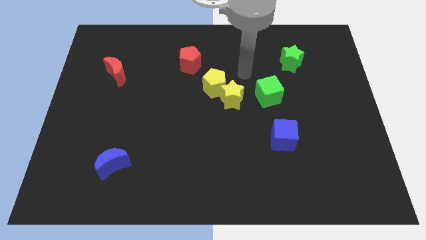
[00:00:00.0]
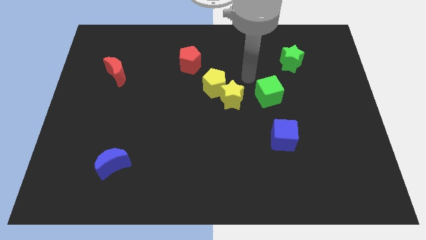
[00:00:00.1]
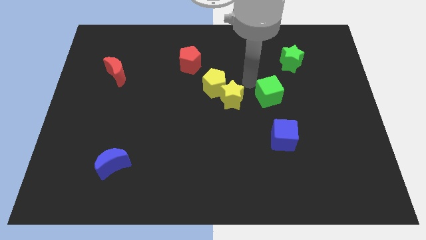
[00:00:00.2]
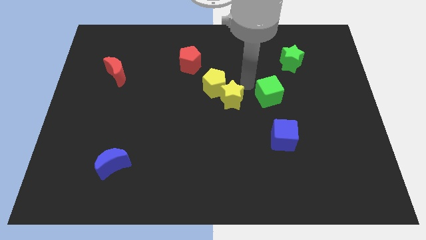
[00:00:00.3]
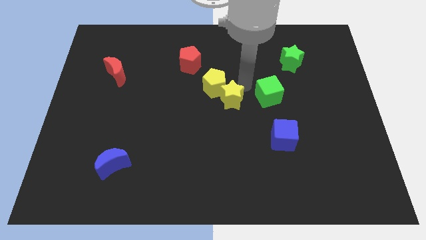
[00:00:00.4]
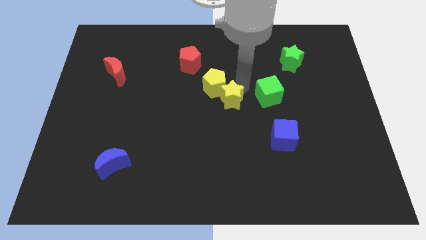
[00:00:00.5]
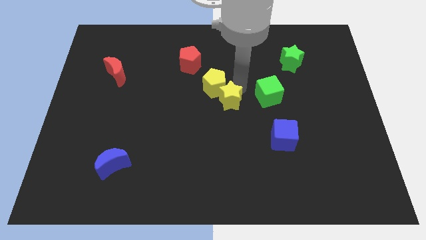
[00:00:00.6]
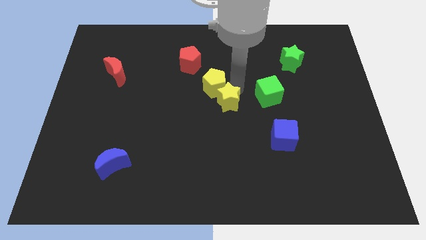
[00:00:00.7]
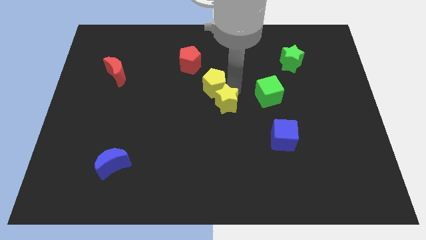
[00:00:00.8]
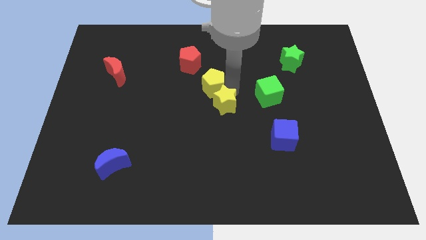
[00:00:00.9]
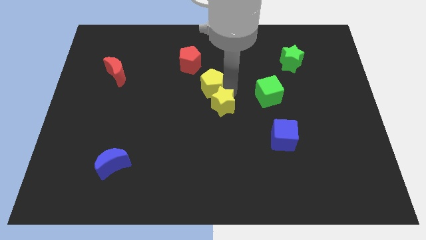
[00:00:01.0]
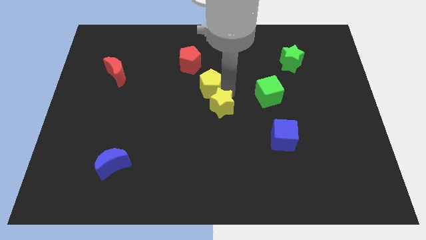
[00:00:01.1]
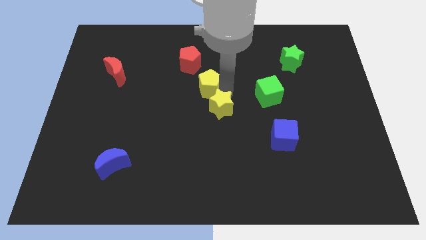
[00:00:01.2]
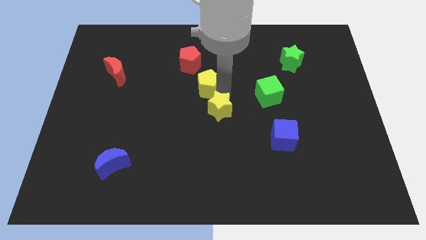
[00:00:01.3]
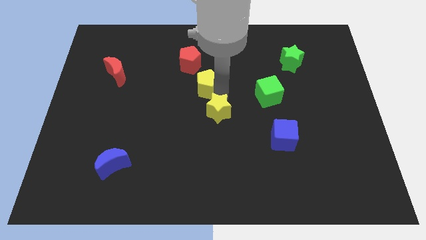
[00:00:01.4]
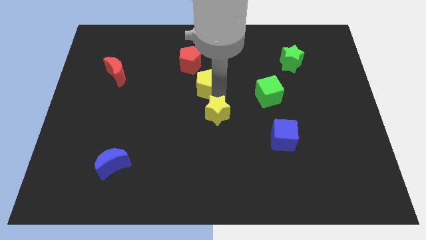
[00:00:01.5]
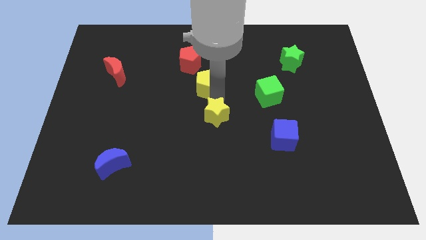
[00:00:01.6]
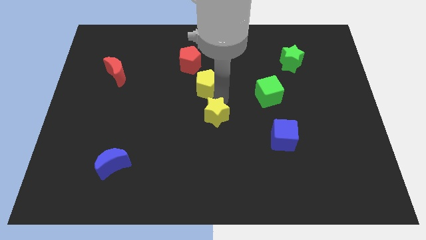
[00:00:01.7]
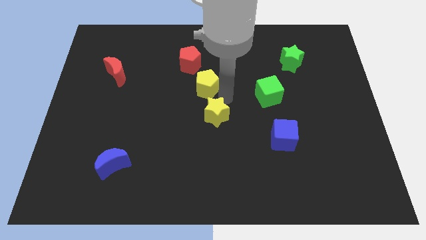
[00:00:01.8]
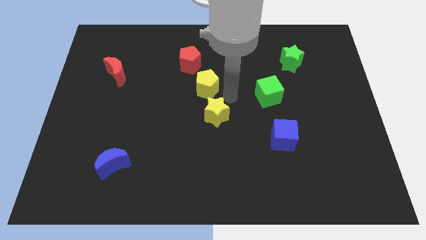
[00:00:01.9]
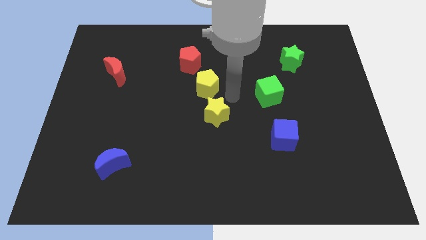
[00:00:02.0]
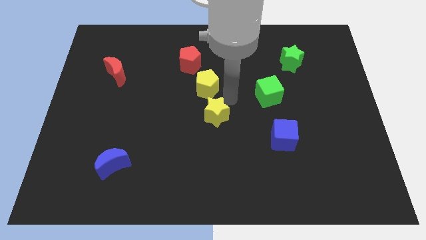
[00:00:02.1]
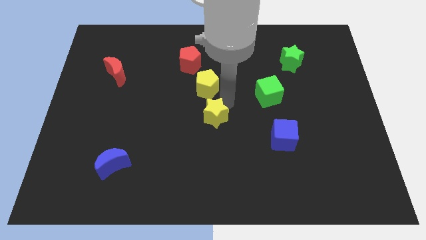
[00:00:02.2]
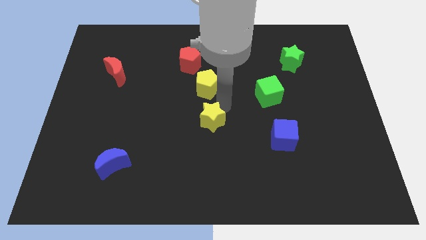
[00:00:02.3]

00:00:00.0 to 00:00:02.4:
move the yellow star away from the yellow pentagon and green cube

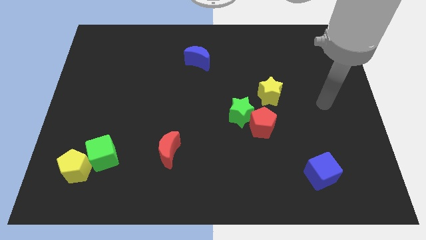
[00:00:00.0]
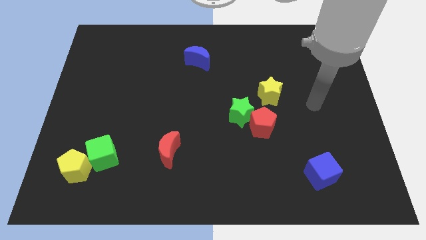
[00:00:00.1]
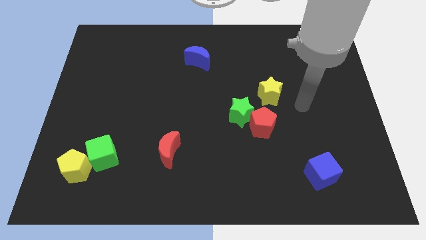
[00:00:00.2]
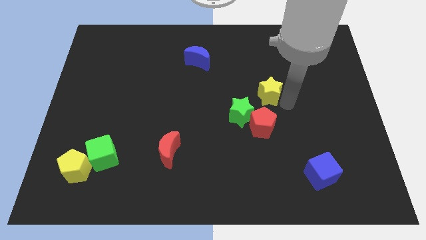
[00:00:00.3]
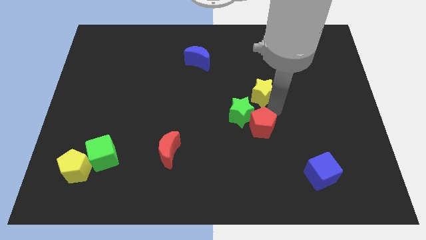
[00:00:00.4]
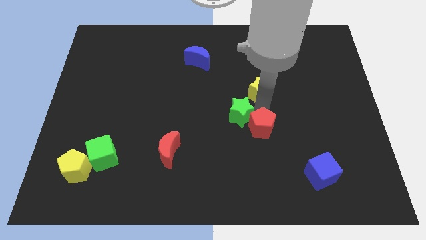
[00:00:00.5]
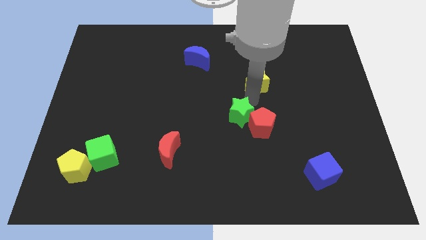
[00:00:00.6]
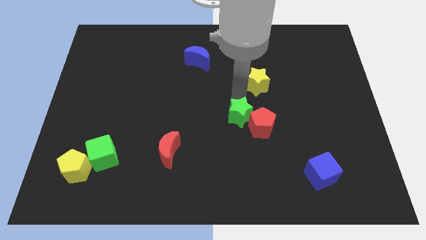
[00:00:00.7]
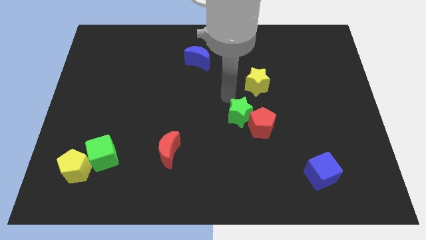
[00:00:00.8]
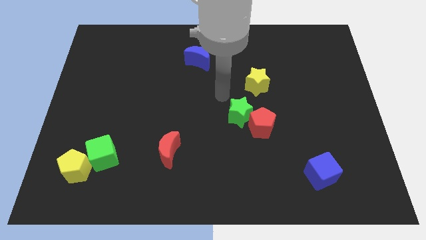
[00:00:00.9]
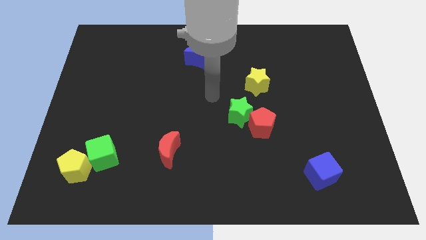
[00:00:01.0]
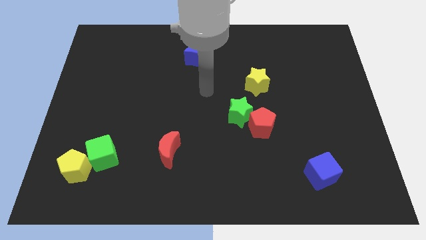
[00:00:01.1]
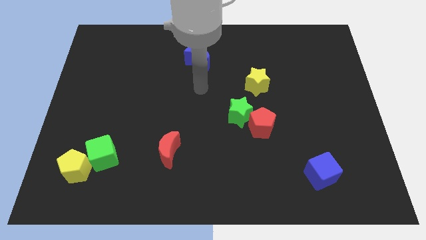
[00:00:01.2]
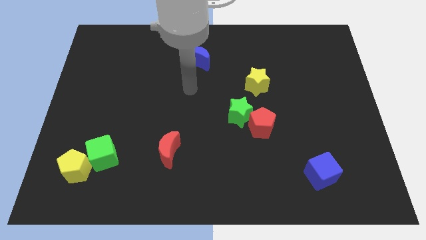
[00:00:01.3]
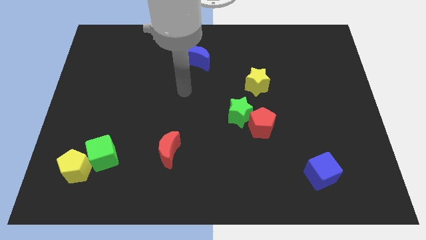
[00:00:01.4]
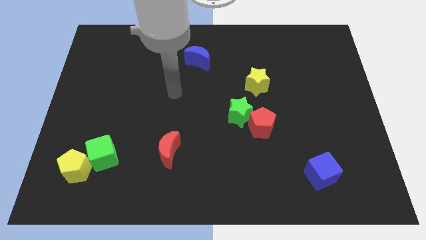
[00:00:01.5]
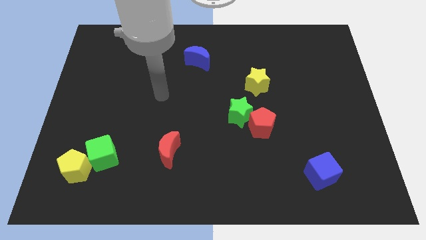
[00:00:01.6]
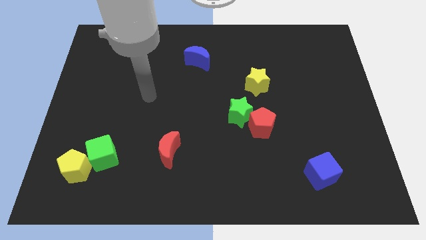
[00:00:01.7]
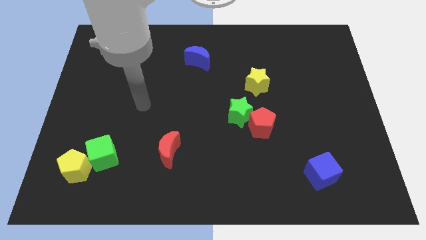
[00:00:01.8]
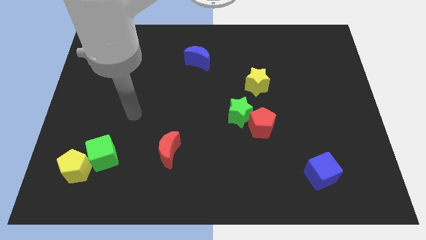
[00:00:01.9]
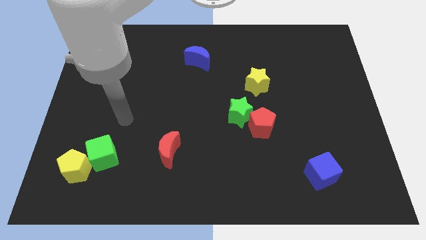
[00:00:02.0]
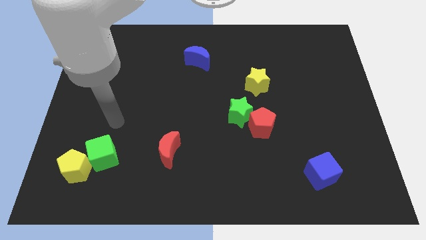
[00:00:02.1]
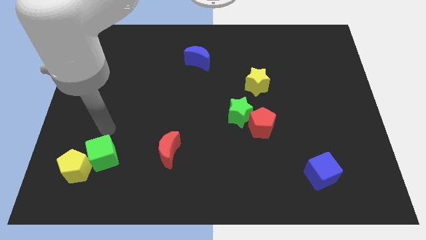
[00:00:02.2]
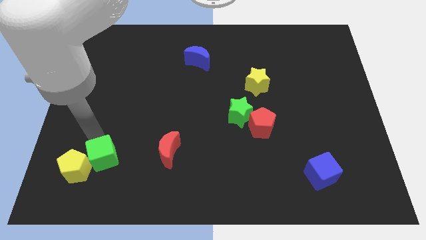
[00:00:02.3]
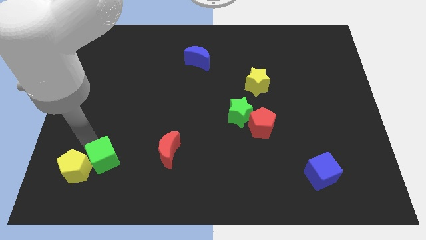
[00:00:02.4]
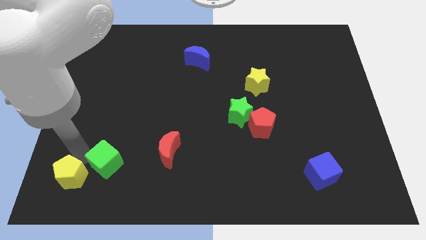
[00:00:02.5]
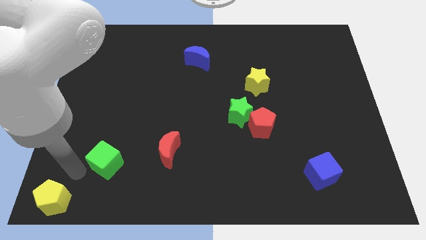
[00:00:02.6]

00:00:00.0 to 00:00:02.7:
move the green cube away from the yellow pentagon

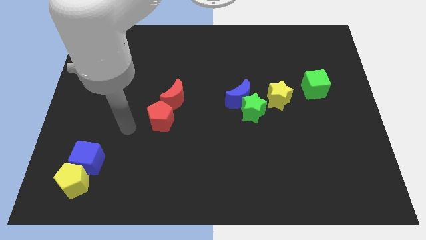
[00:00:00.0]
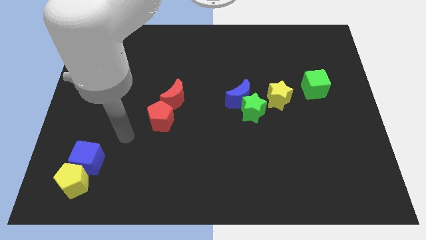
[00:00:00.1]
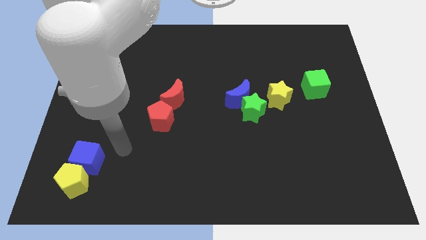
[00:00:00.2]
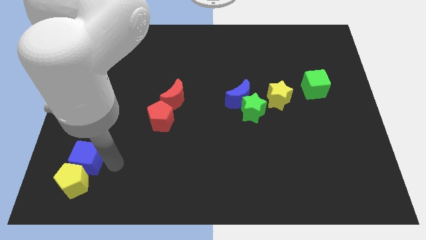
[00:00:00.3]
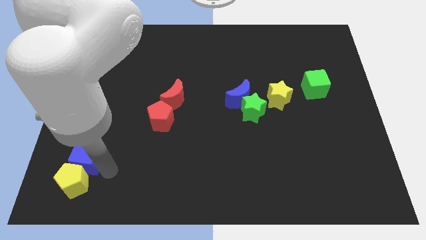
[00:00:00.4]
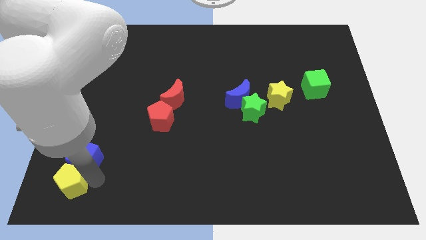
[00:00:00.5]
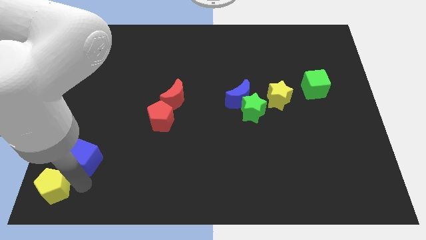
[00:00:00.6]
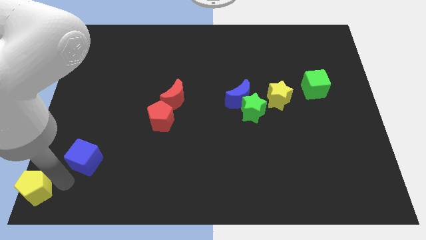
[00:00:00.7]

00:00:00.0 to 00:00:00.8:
move the blue cube away from the yellow pentagon

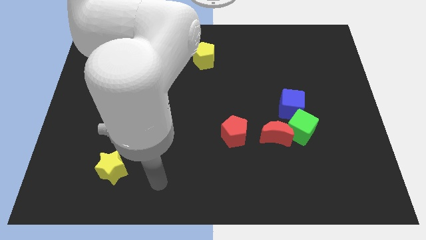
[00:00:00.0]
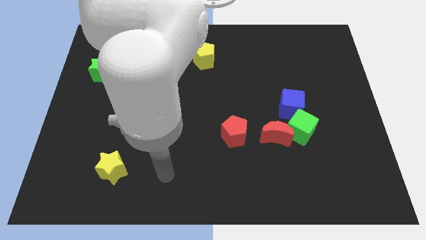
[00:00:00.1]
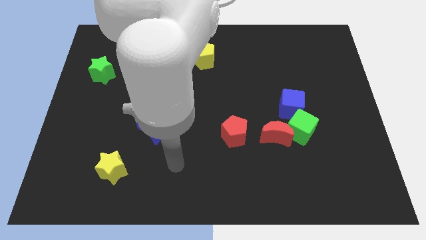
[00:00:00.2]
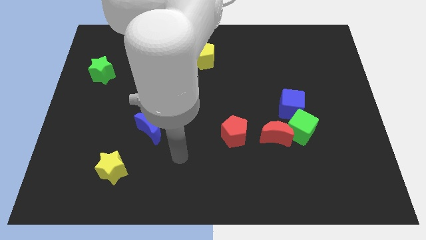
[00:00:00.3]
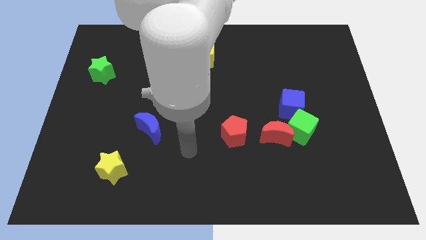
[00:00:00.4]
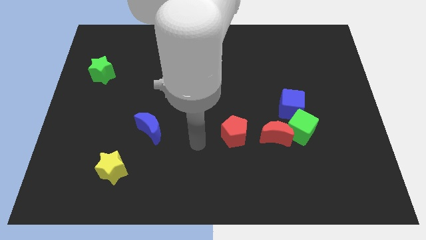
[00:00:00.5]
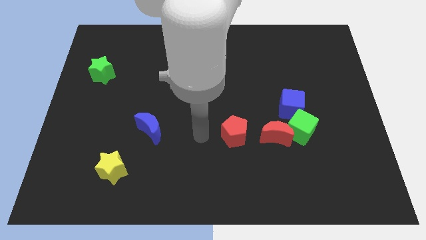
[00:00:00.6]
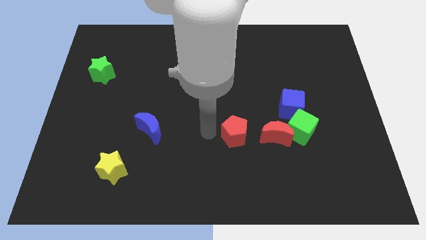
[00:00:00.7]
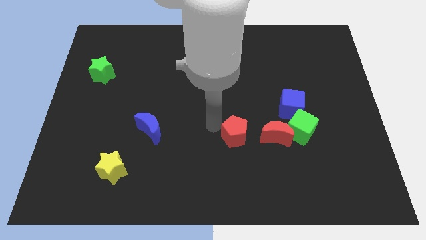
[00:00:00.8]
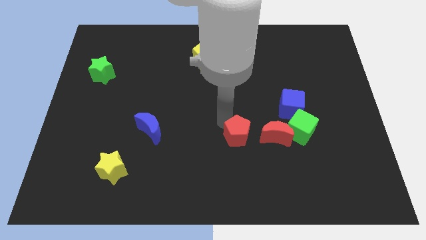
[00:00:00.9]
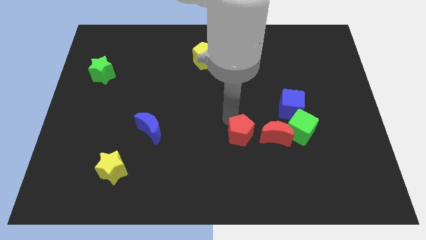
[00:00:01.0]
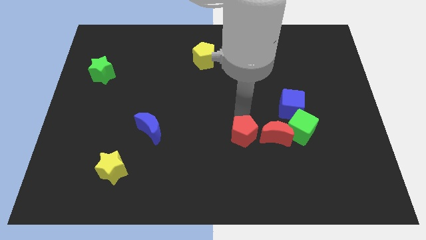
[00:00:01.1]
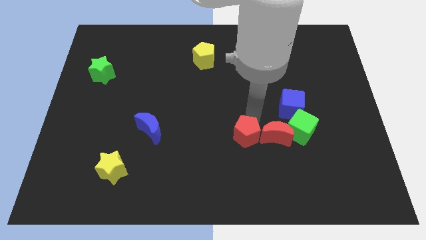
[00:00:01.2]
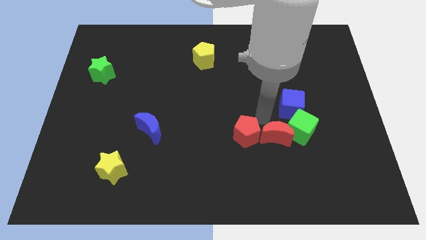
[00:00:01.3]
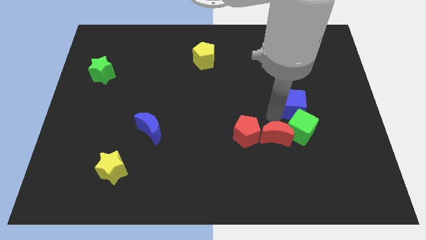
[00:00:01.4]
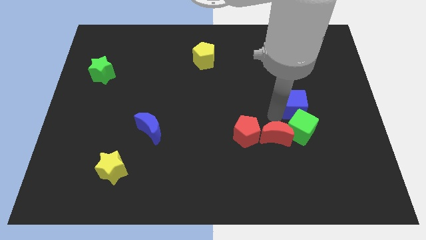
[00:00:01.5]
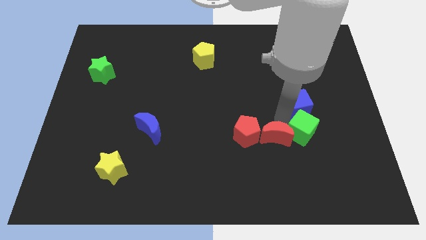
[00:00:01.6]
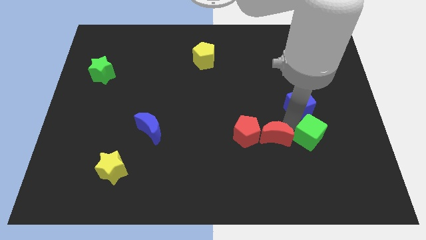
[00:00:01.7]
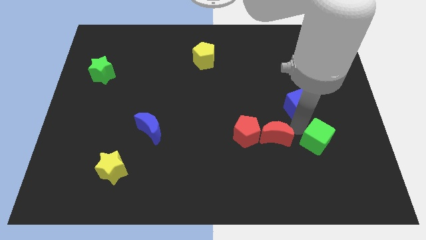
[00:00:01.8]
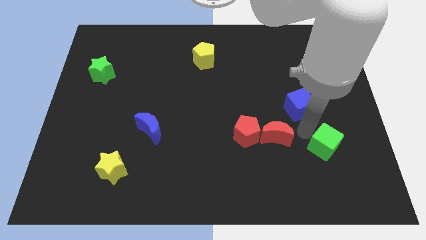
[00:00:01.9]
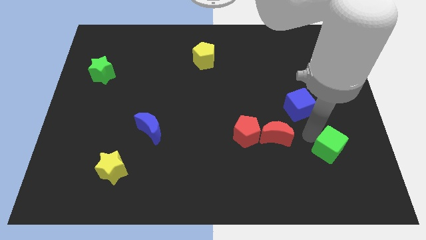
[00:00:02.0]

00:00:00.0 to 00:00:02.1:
pull the green cube apart from the red moon and blue cube

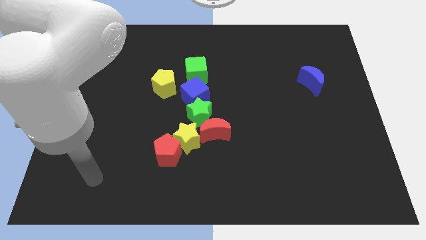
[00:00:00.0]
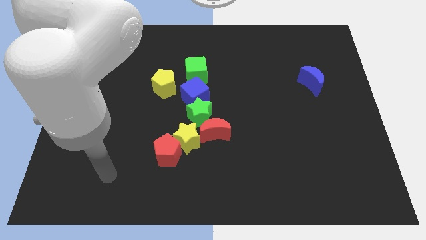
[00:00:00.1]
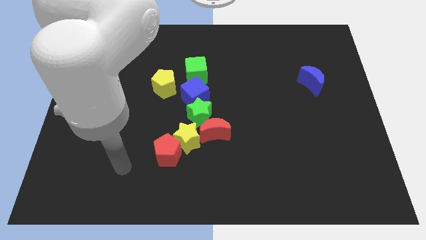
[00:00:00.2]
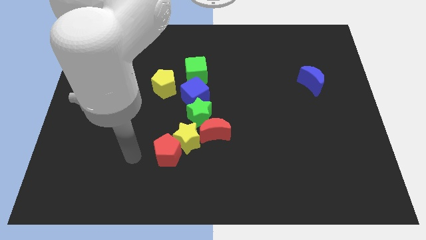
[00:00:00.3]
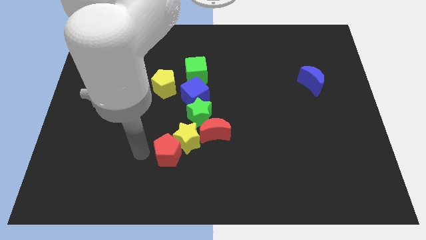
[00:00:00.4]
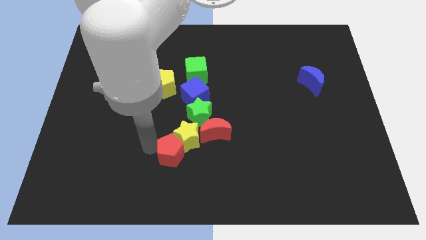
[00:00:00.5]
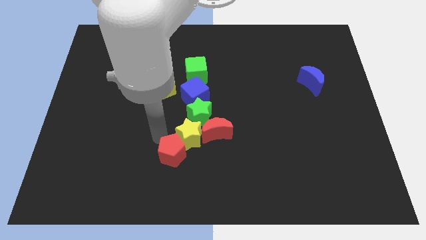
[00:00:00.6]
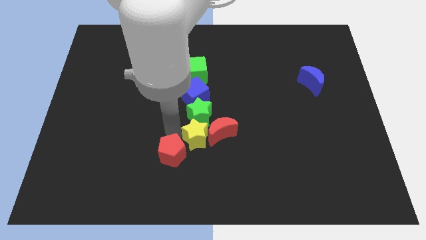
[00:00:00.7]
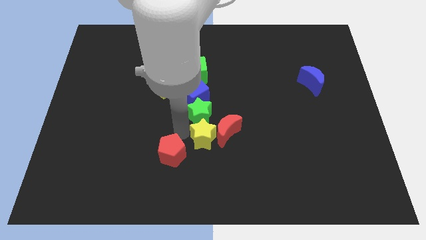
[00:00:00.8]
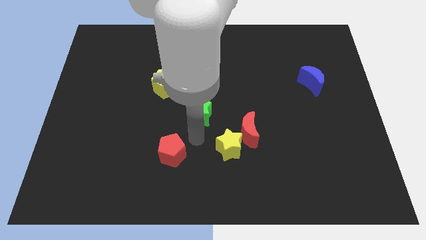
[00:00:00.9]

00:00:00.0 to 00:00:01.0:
pull the red pentagon apart from the yellow star

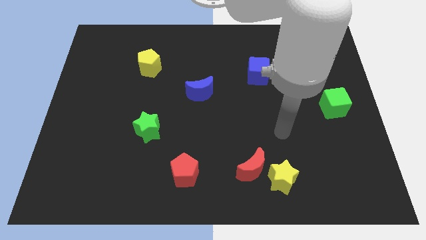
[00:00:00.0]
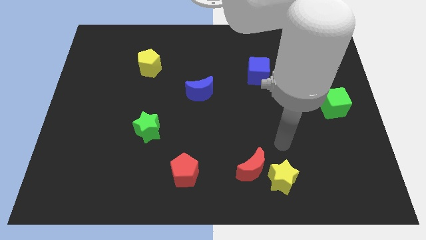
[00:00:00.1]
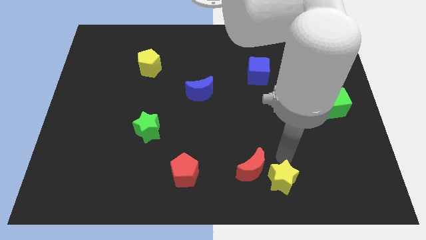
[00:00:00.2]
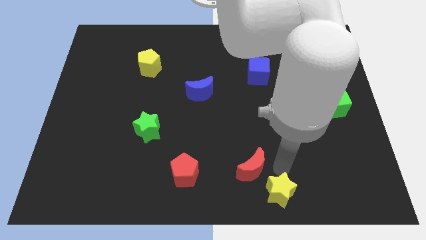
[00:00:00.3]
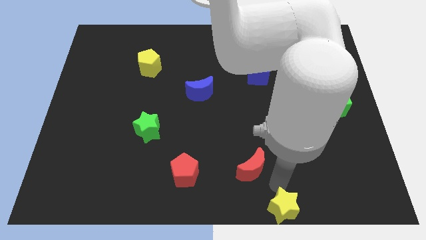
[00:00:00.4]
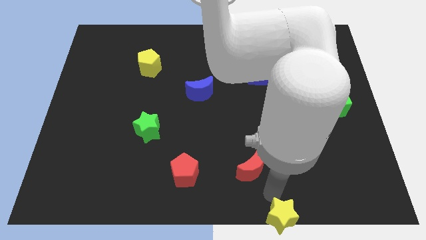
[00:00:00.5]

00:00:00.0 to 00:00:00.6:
move the red moon away from the yellow star
